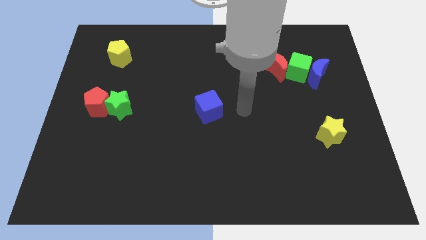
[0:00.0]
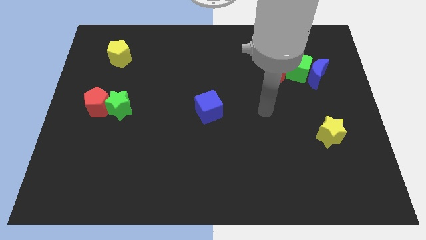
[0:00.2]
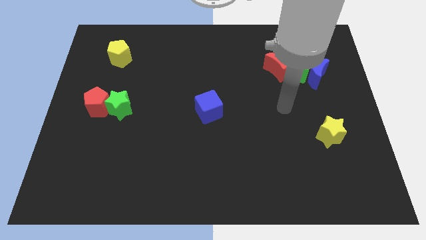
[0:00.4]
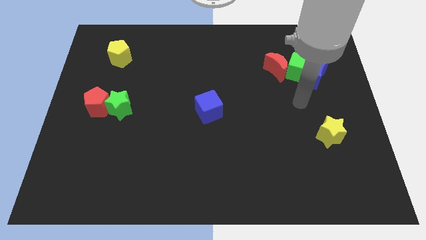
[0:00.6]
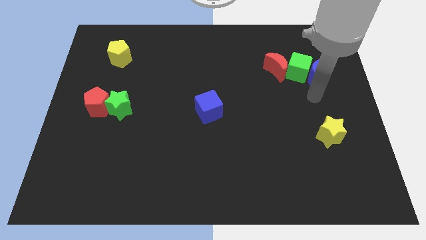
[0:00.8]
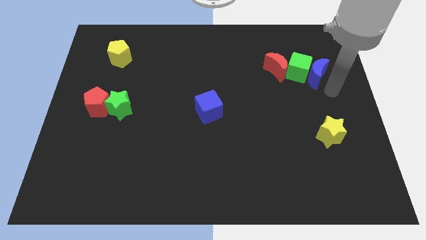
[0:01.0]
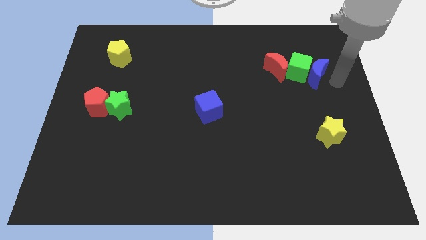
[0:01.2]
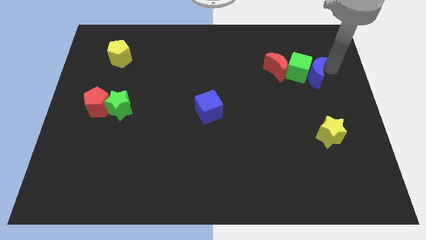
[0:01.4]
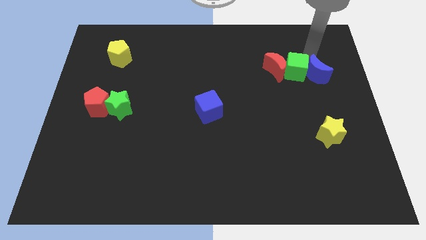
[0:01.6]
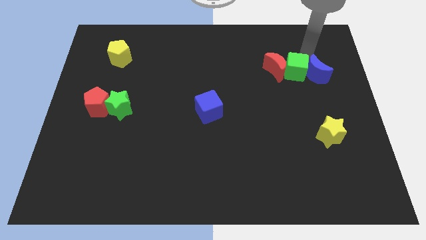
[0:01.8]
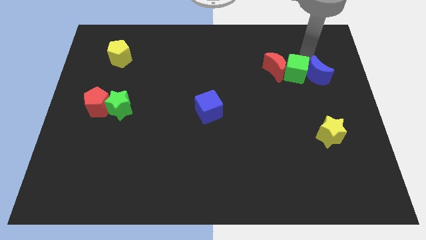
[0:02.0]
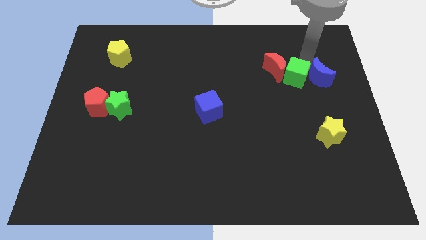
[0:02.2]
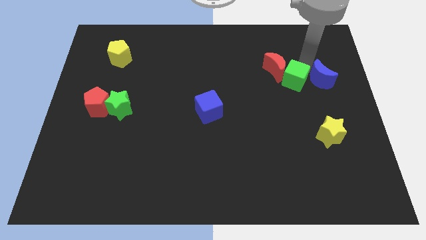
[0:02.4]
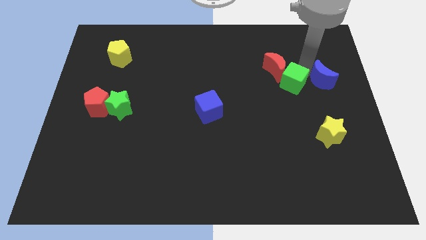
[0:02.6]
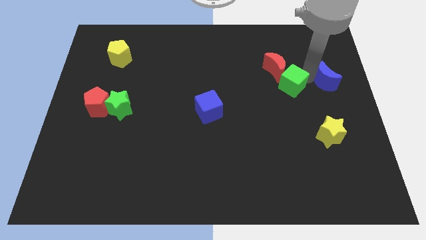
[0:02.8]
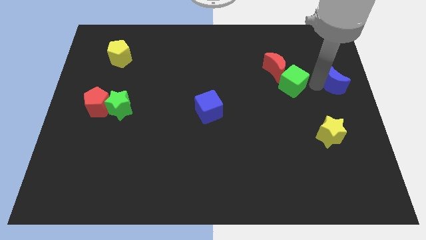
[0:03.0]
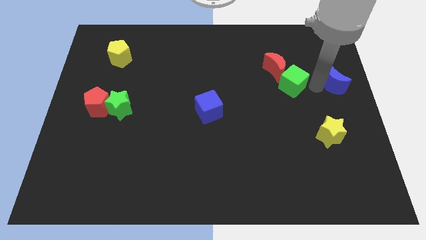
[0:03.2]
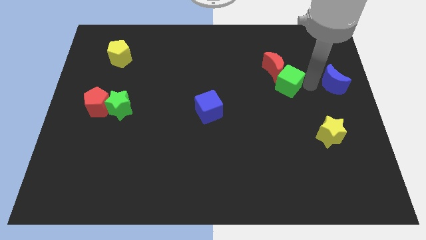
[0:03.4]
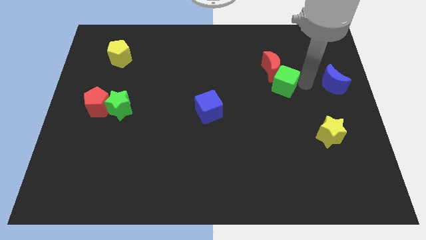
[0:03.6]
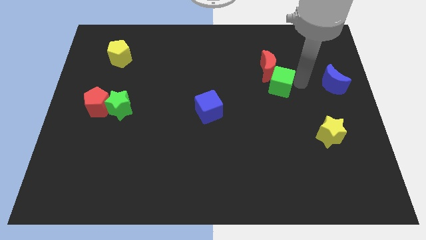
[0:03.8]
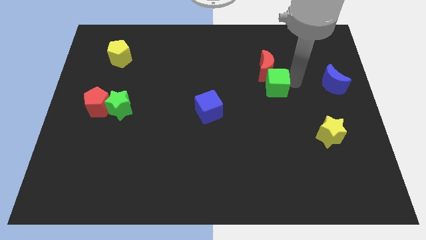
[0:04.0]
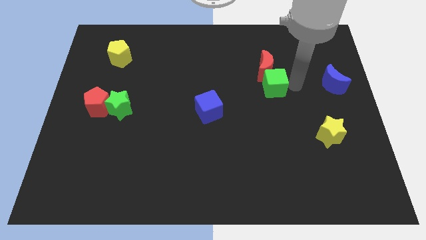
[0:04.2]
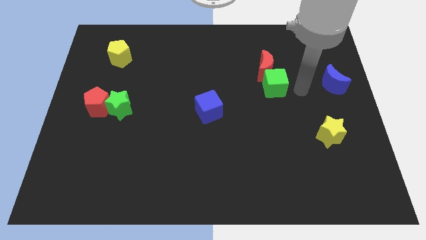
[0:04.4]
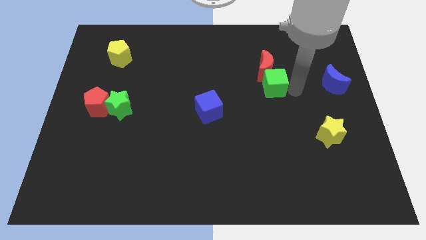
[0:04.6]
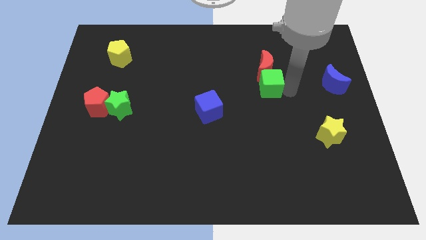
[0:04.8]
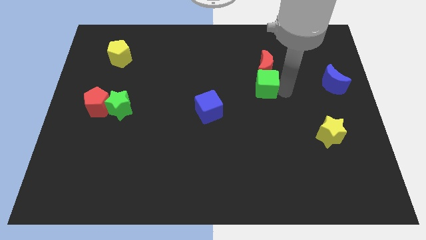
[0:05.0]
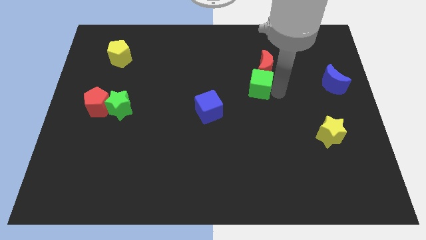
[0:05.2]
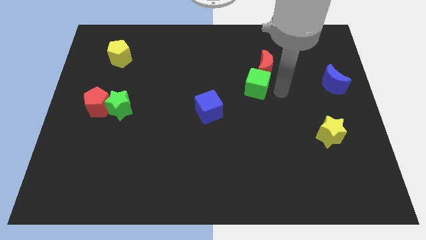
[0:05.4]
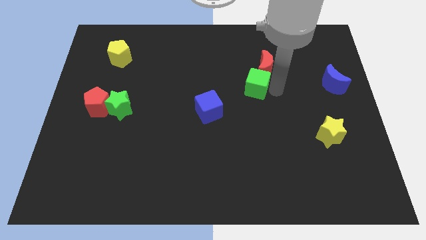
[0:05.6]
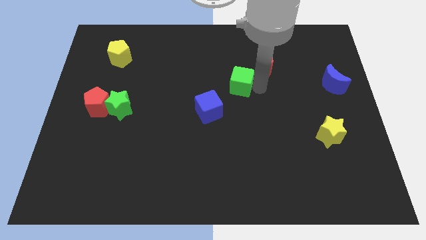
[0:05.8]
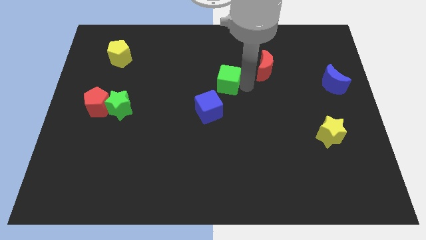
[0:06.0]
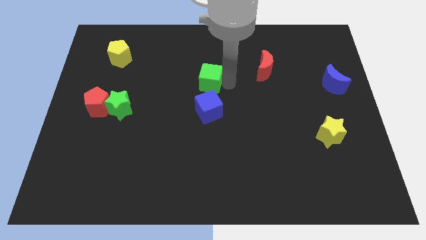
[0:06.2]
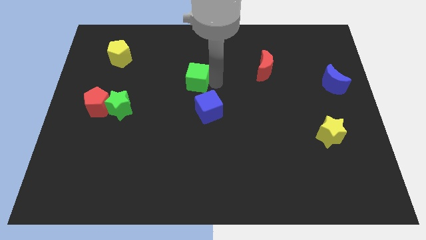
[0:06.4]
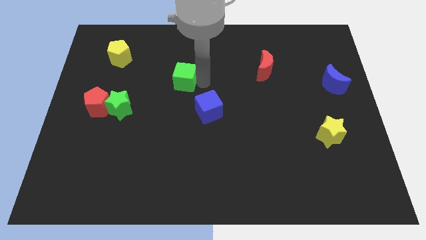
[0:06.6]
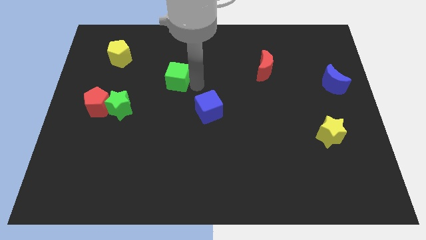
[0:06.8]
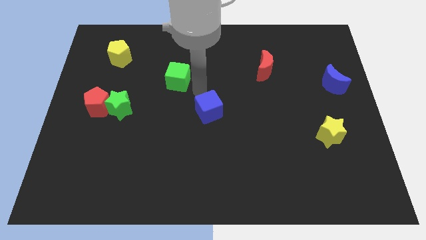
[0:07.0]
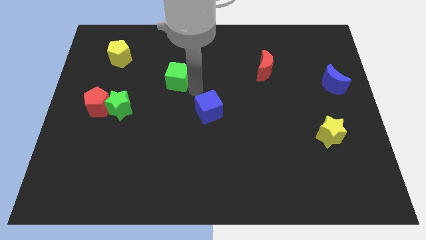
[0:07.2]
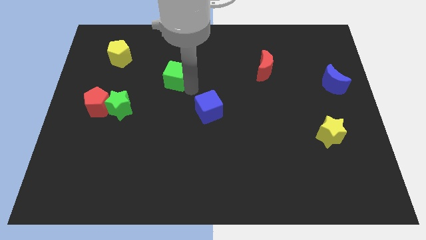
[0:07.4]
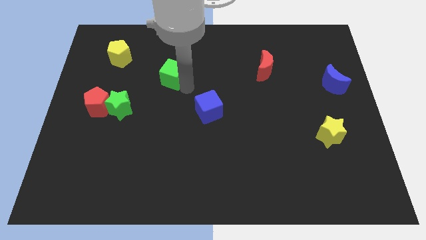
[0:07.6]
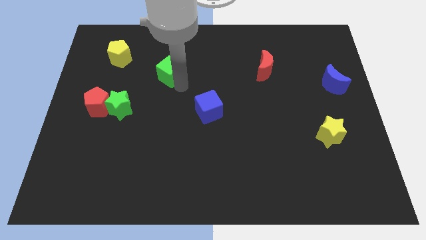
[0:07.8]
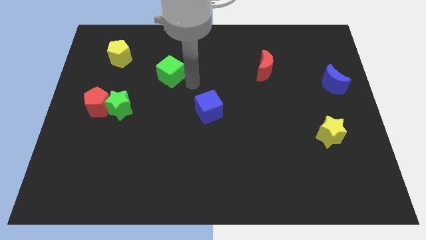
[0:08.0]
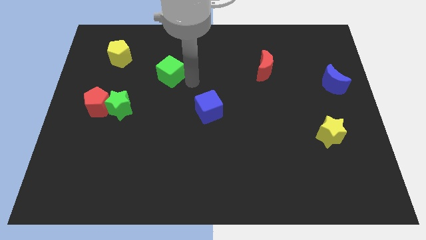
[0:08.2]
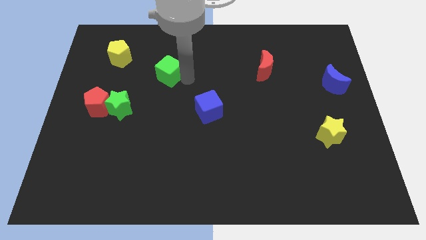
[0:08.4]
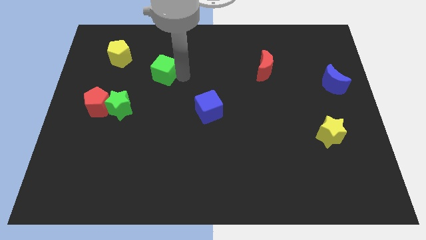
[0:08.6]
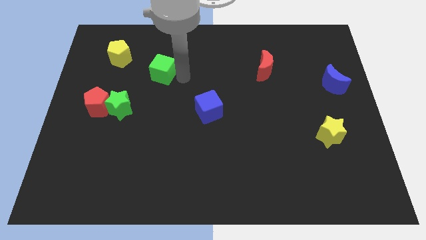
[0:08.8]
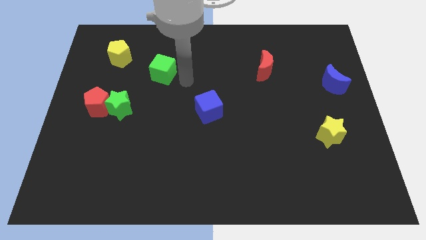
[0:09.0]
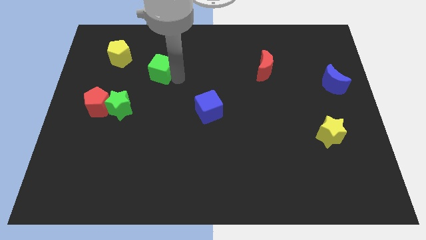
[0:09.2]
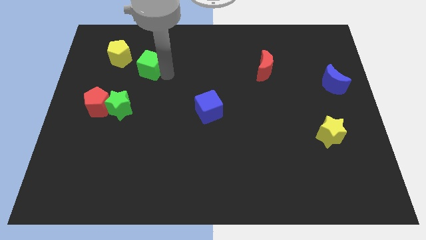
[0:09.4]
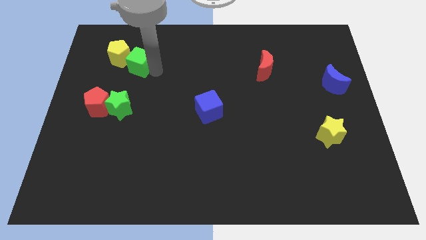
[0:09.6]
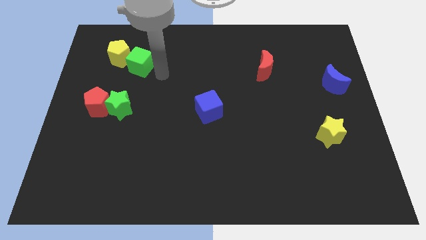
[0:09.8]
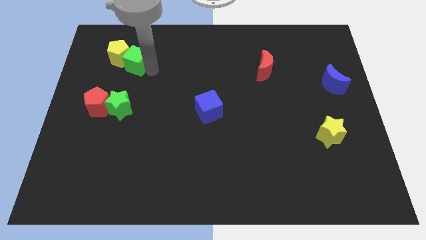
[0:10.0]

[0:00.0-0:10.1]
move the green cube to the yellow pentagon

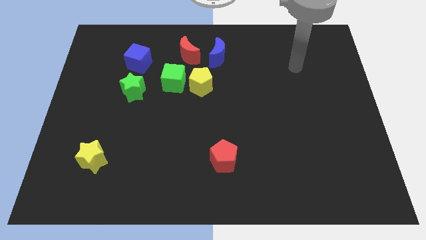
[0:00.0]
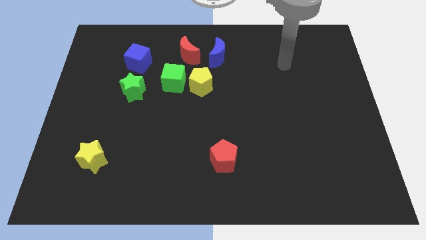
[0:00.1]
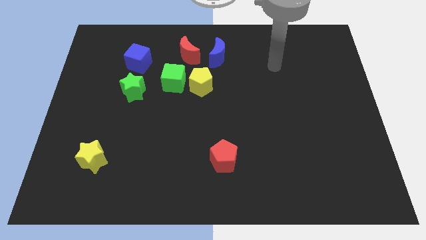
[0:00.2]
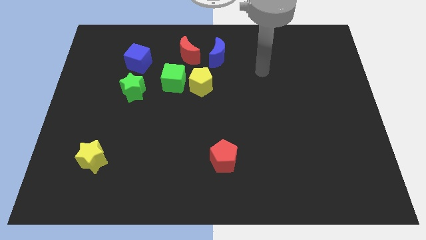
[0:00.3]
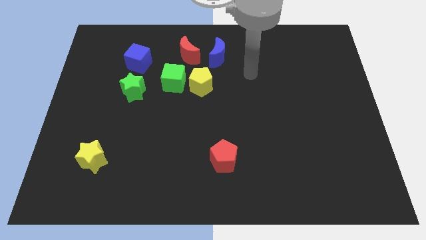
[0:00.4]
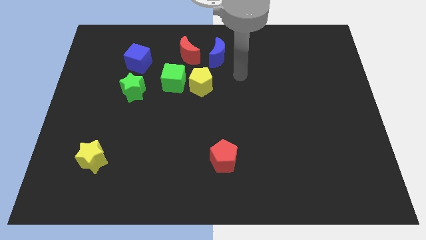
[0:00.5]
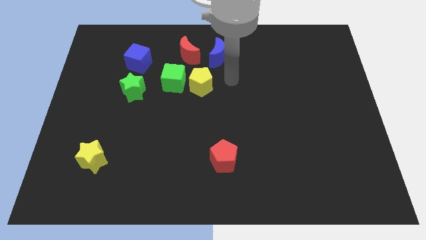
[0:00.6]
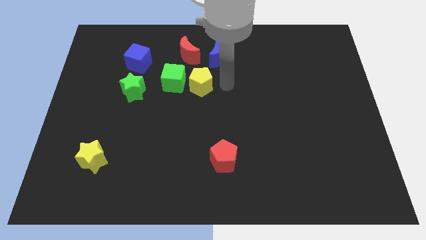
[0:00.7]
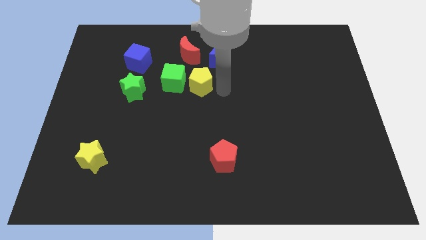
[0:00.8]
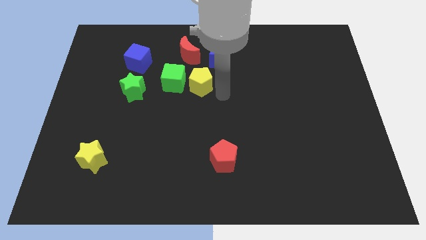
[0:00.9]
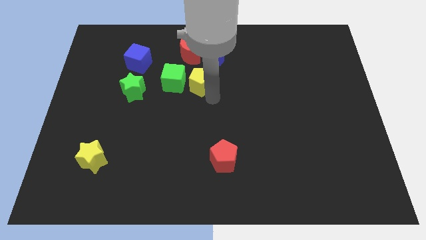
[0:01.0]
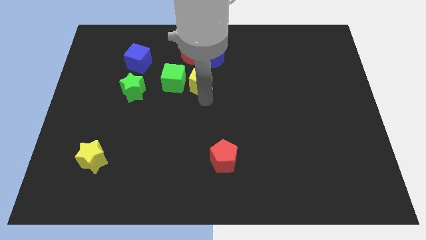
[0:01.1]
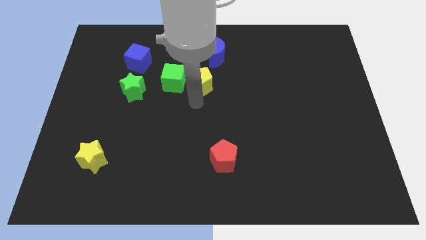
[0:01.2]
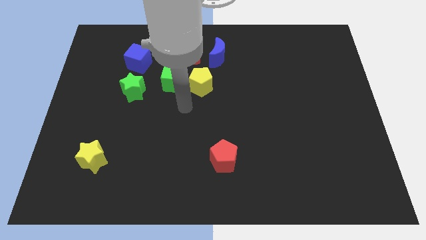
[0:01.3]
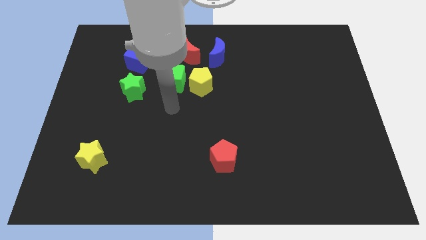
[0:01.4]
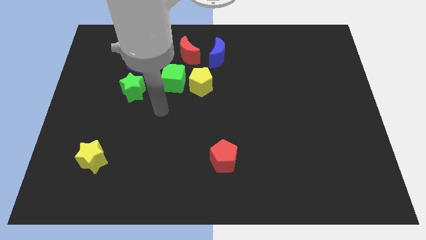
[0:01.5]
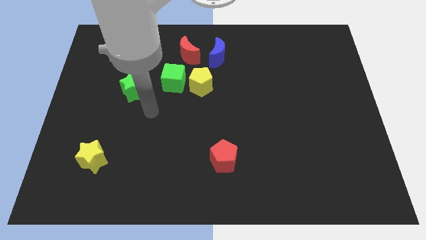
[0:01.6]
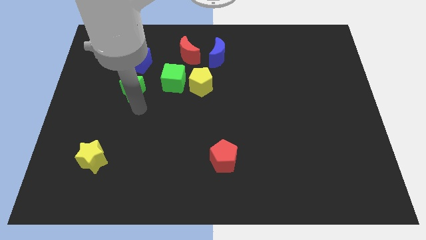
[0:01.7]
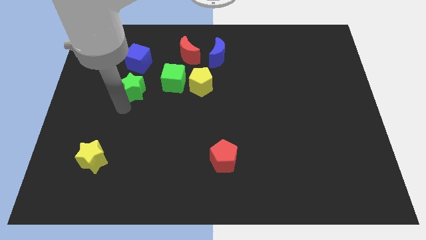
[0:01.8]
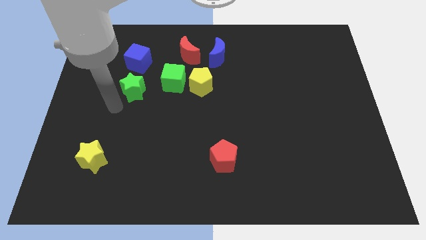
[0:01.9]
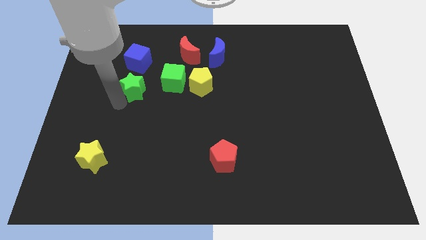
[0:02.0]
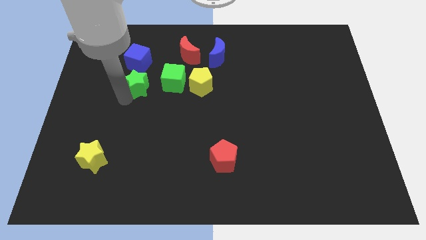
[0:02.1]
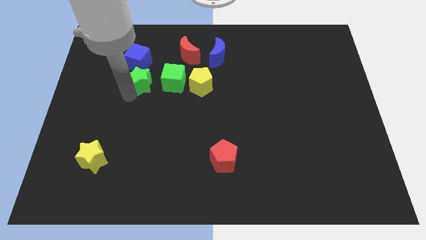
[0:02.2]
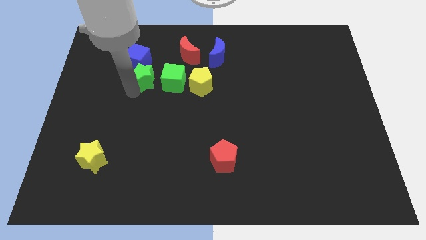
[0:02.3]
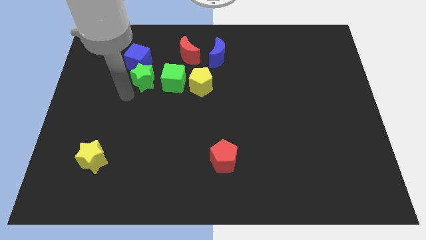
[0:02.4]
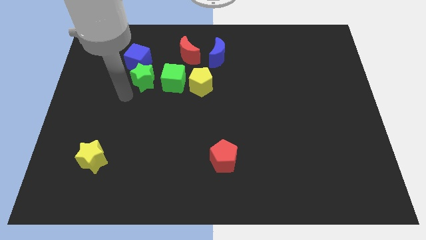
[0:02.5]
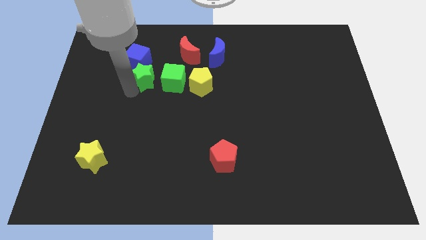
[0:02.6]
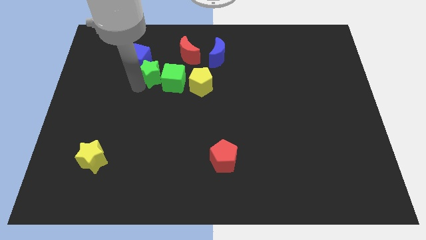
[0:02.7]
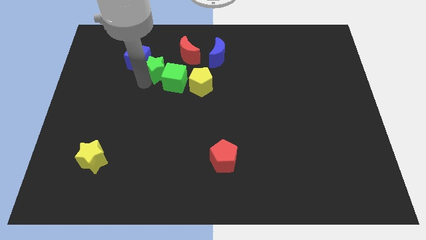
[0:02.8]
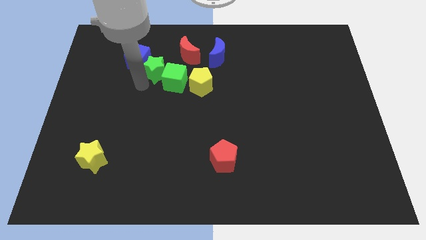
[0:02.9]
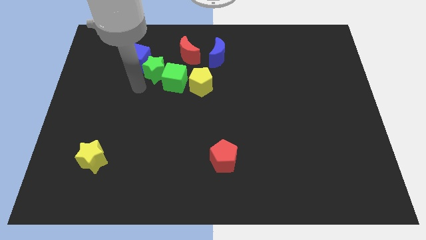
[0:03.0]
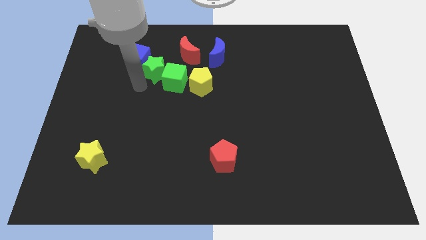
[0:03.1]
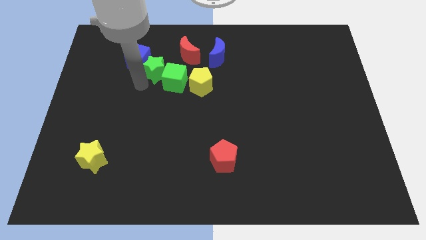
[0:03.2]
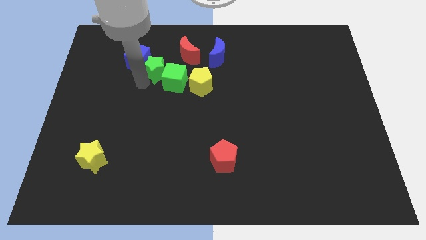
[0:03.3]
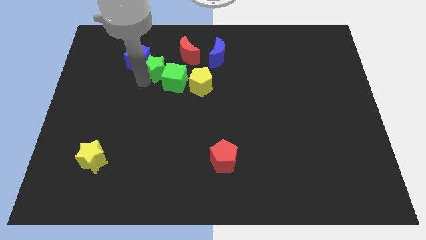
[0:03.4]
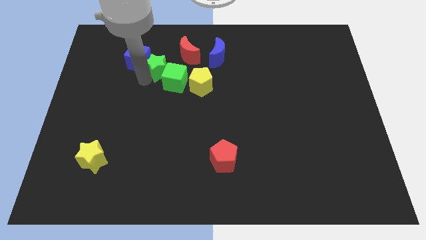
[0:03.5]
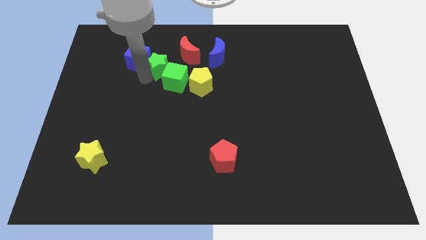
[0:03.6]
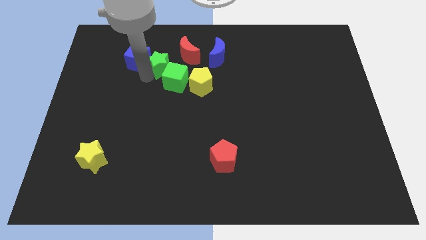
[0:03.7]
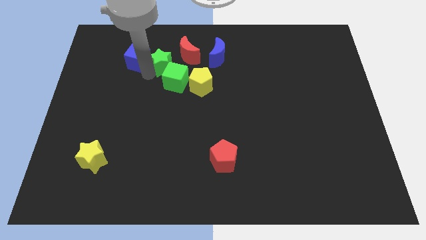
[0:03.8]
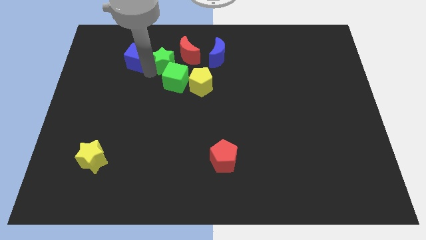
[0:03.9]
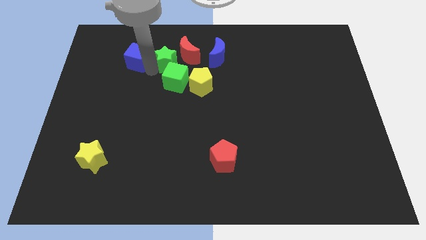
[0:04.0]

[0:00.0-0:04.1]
put the green star to the red moon
